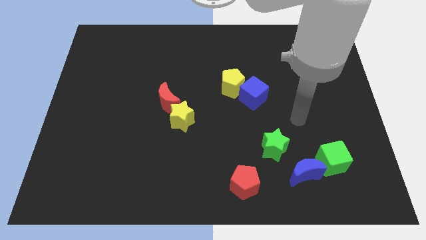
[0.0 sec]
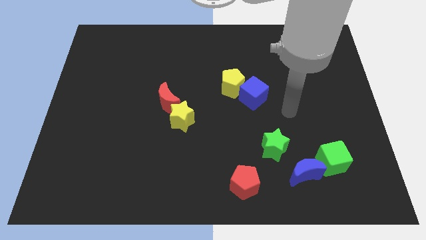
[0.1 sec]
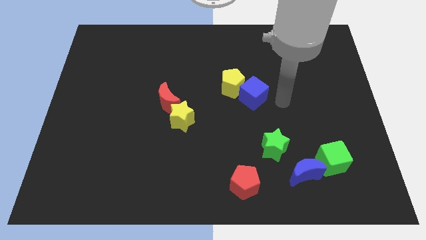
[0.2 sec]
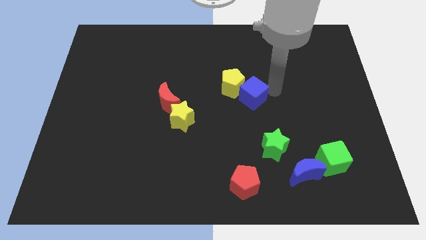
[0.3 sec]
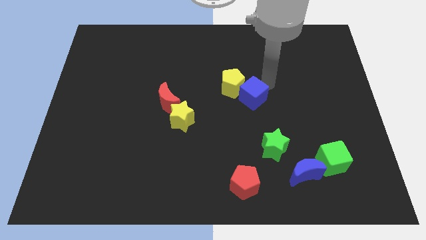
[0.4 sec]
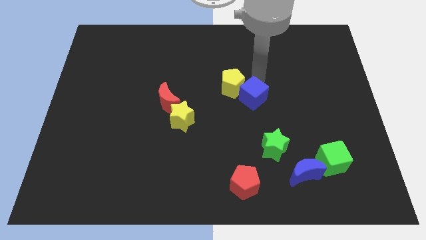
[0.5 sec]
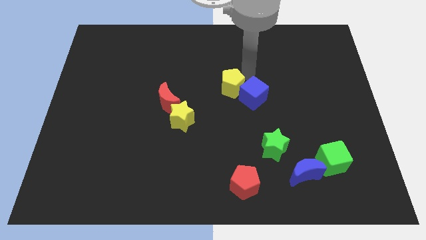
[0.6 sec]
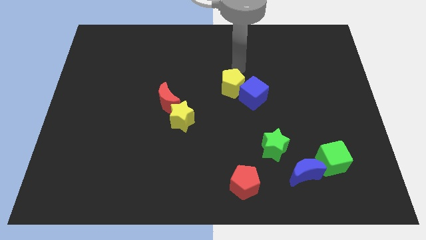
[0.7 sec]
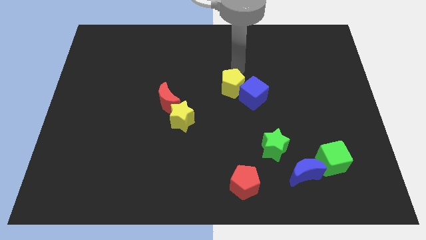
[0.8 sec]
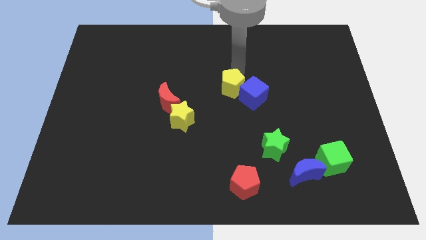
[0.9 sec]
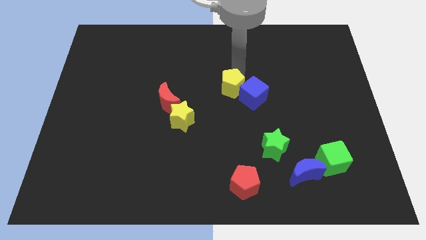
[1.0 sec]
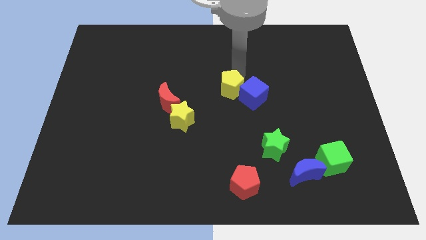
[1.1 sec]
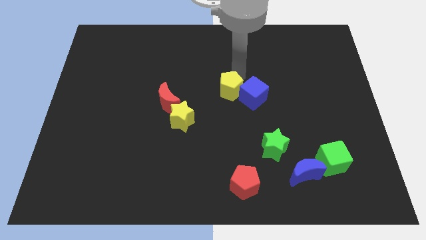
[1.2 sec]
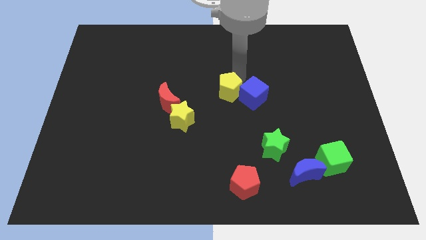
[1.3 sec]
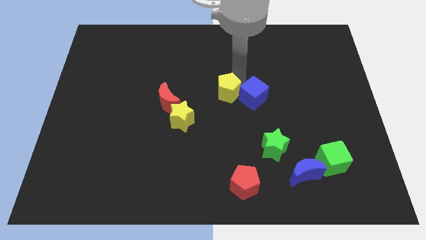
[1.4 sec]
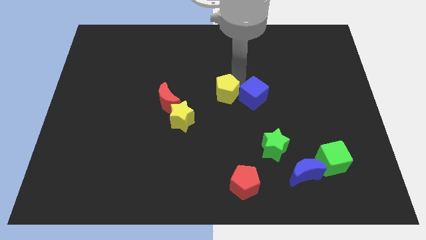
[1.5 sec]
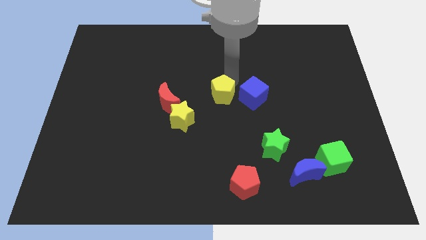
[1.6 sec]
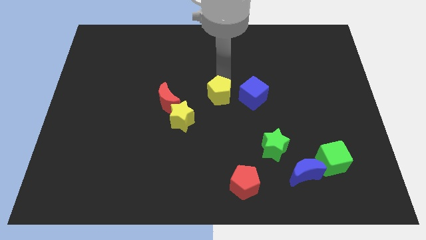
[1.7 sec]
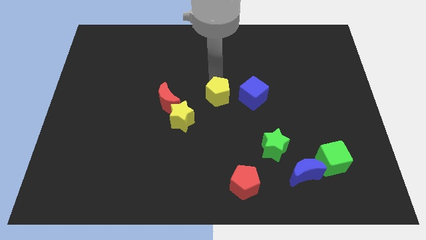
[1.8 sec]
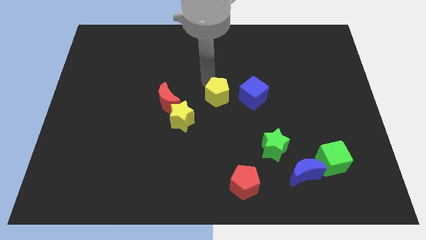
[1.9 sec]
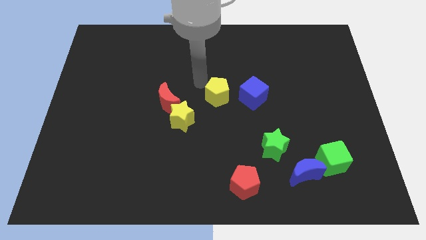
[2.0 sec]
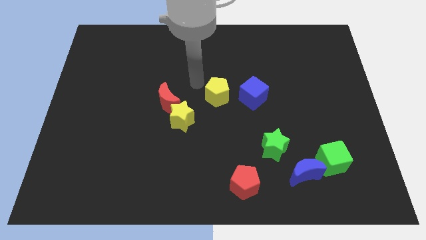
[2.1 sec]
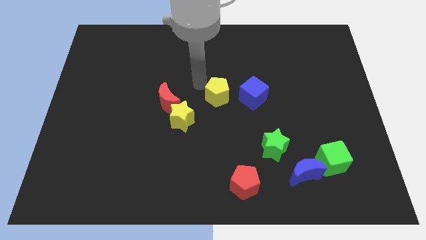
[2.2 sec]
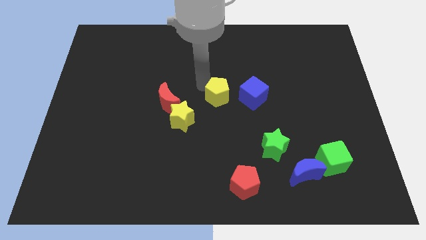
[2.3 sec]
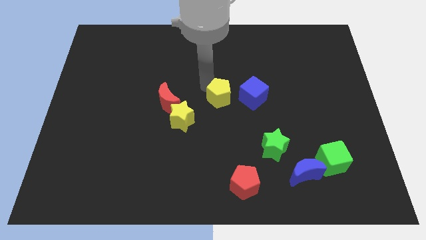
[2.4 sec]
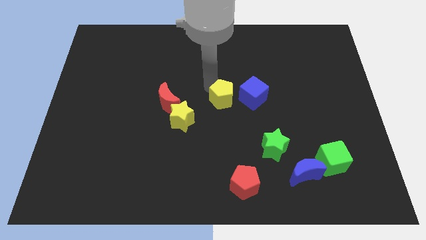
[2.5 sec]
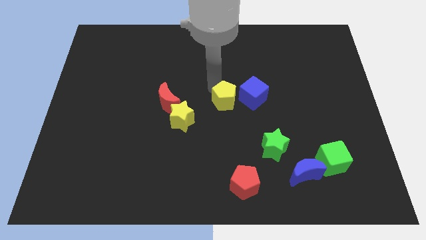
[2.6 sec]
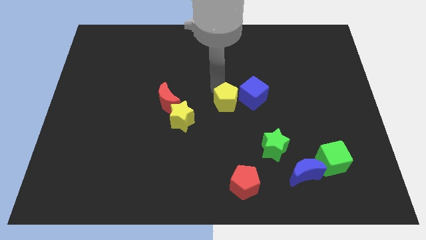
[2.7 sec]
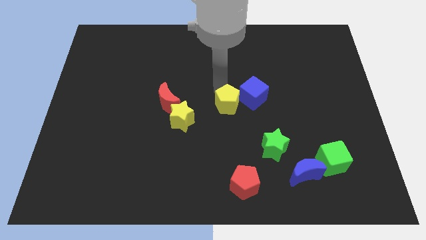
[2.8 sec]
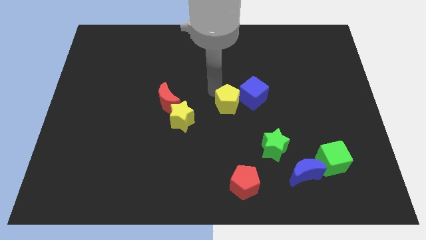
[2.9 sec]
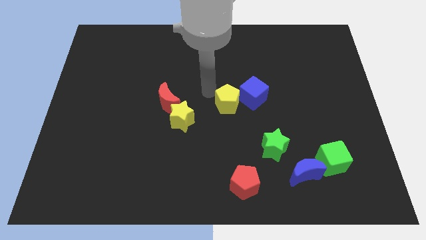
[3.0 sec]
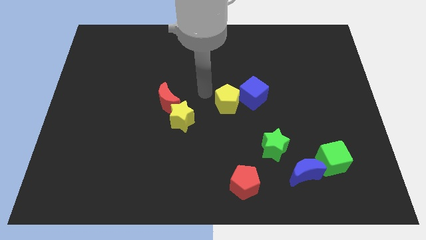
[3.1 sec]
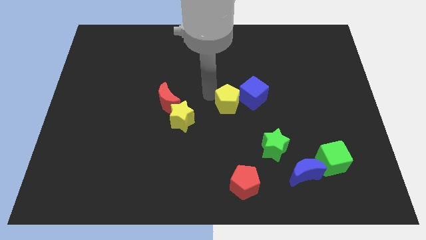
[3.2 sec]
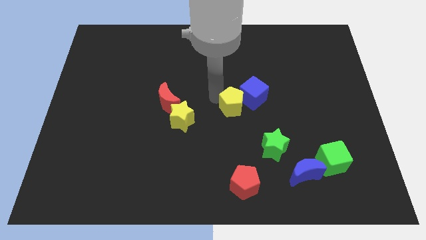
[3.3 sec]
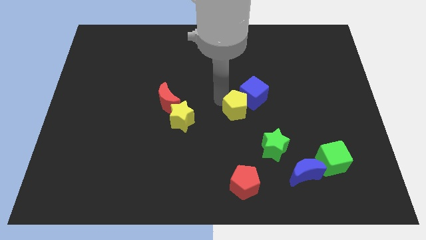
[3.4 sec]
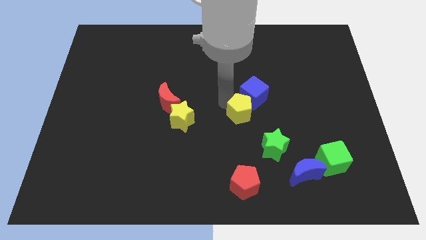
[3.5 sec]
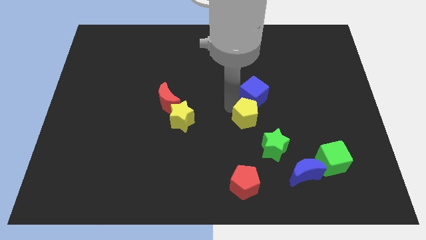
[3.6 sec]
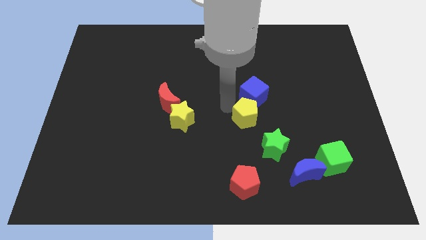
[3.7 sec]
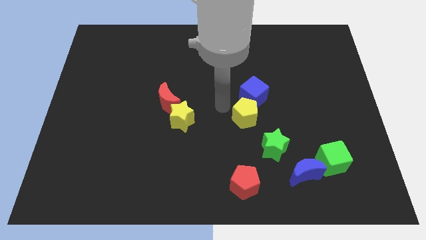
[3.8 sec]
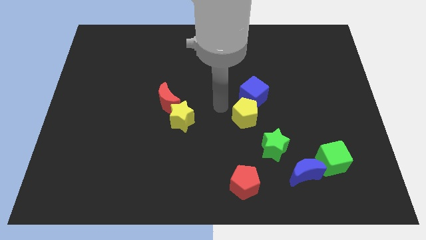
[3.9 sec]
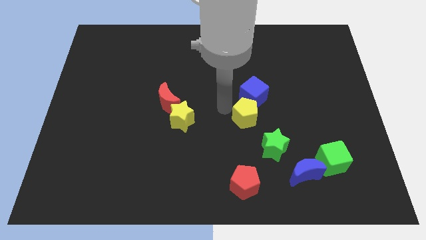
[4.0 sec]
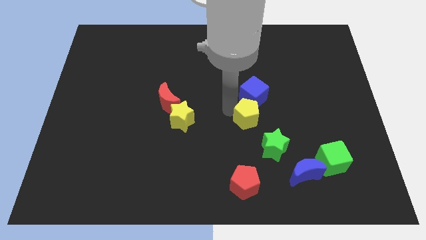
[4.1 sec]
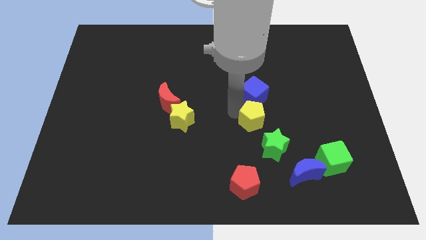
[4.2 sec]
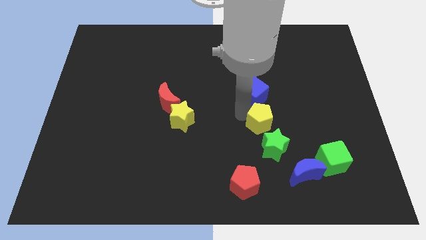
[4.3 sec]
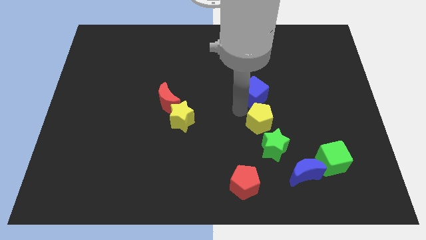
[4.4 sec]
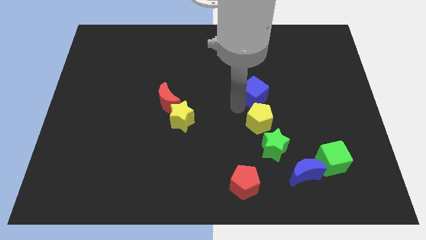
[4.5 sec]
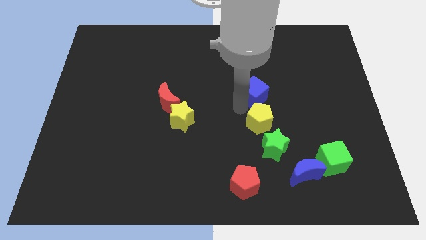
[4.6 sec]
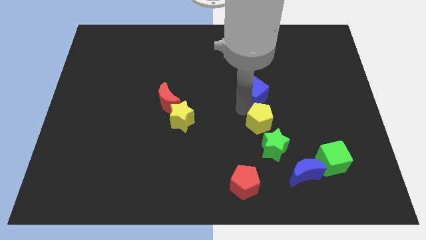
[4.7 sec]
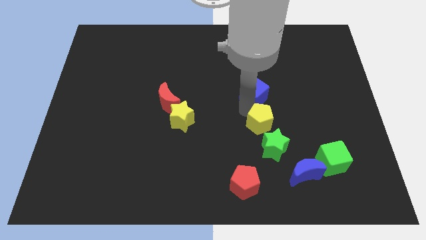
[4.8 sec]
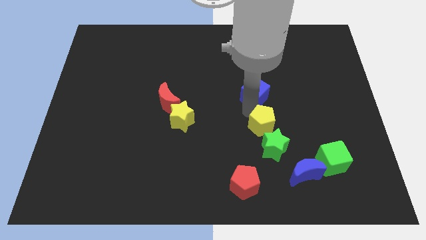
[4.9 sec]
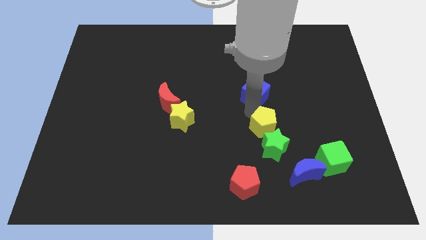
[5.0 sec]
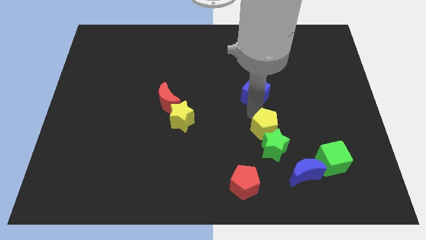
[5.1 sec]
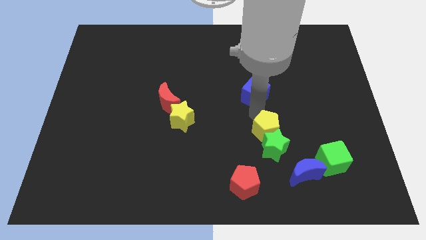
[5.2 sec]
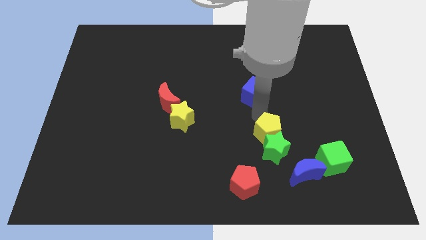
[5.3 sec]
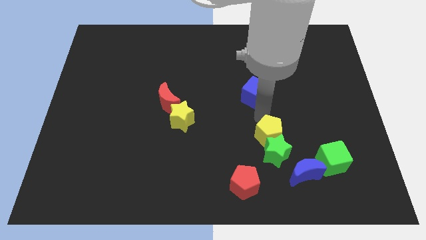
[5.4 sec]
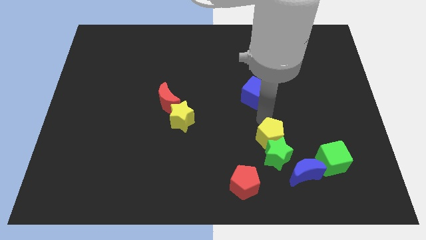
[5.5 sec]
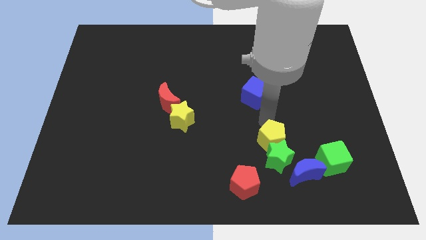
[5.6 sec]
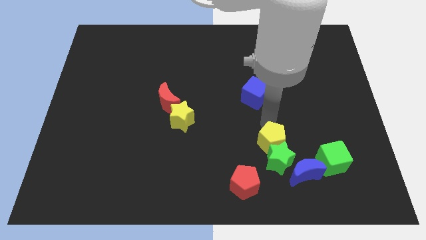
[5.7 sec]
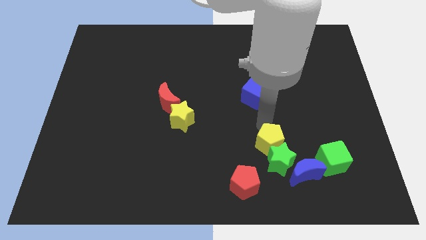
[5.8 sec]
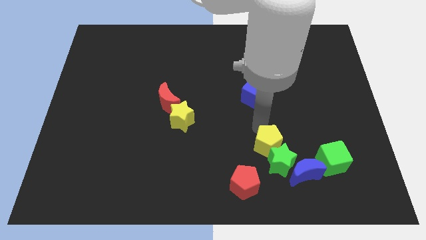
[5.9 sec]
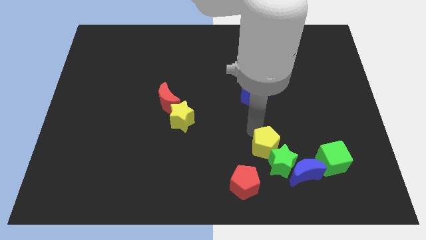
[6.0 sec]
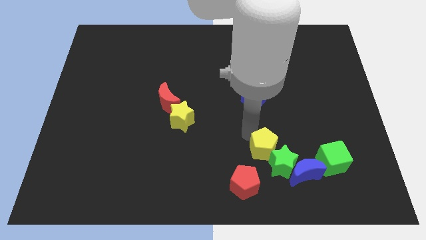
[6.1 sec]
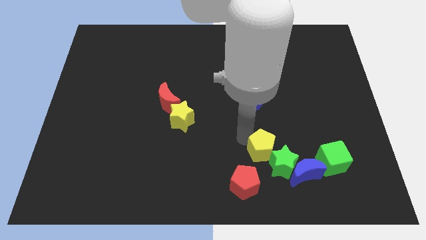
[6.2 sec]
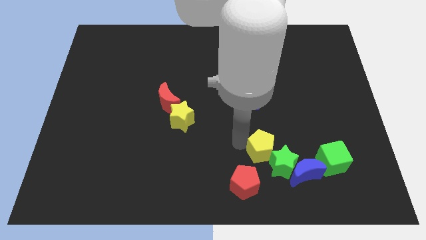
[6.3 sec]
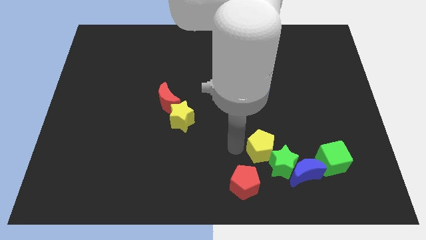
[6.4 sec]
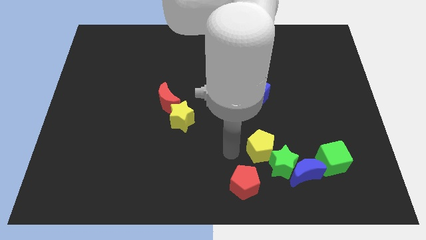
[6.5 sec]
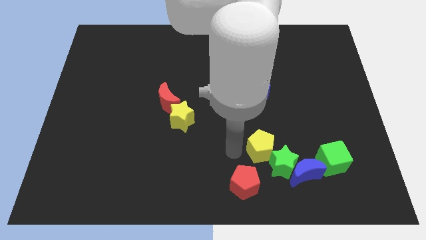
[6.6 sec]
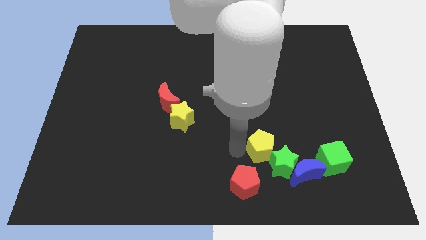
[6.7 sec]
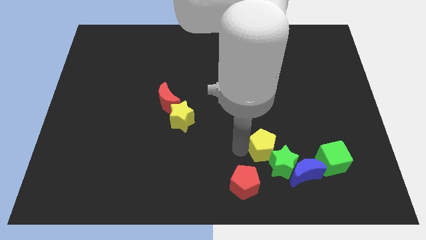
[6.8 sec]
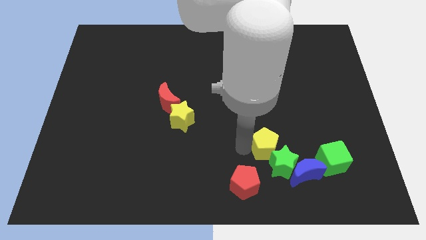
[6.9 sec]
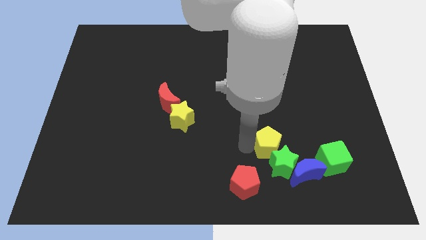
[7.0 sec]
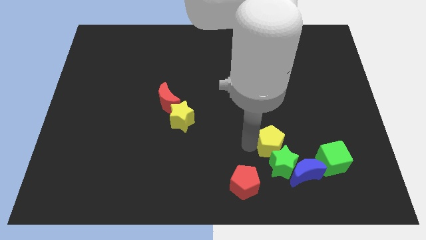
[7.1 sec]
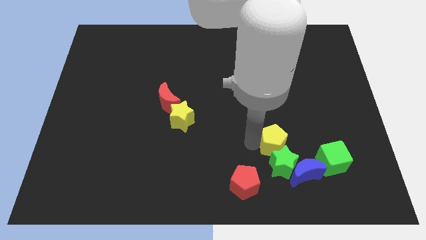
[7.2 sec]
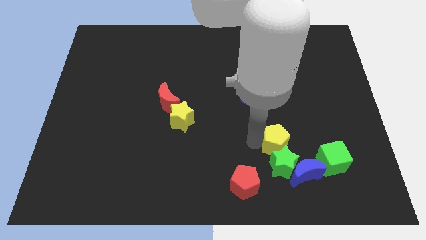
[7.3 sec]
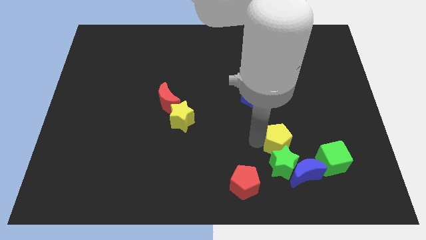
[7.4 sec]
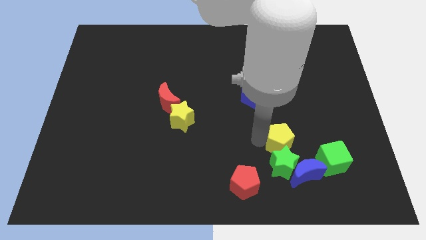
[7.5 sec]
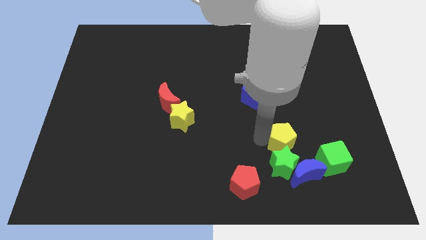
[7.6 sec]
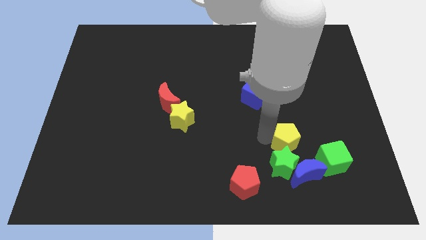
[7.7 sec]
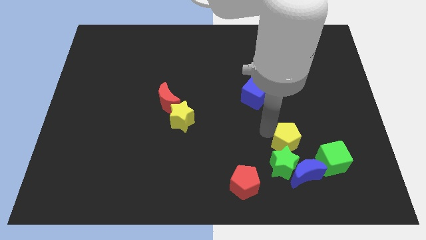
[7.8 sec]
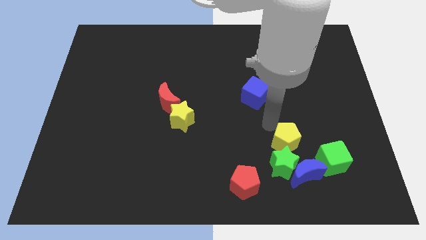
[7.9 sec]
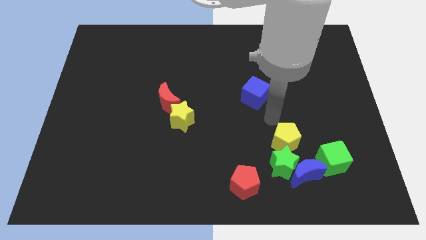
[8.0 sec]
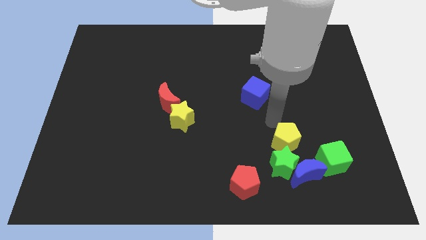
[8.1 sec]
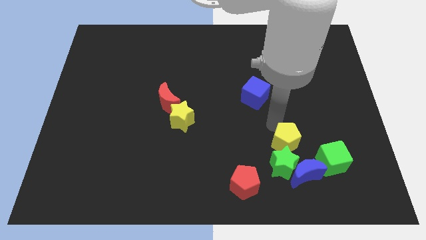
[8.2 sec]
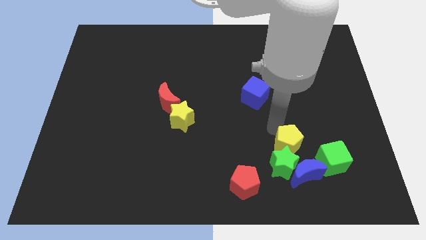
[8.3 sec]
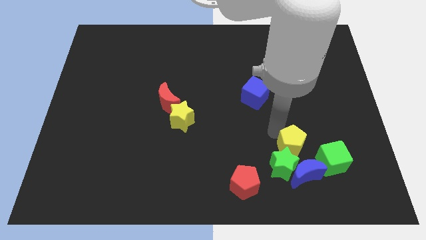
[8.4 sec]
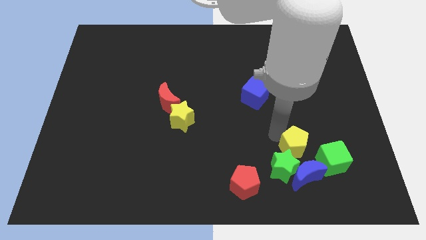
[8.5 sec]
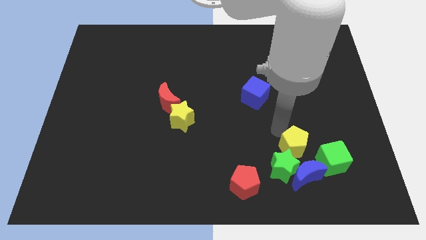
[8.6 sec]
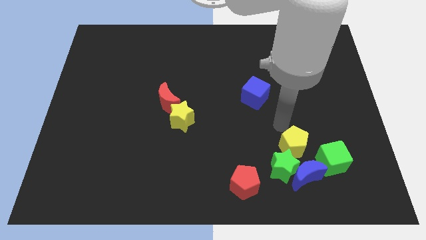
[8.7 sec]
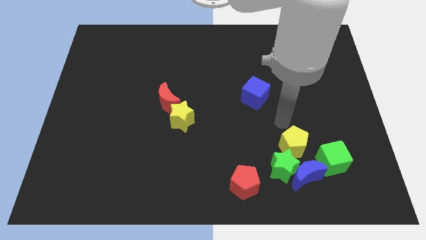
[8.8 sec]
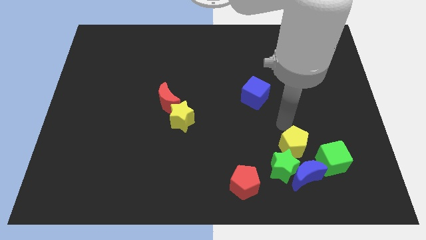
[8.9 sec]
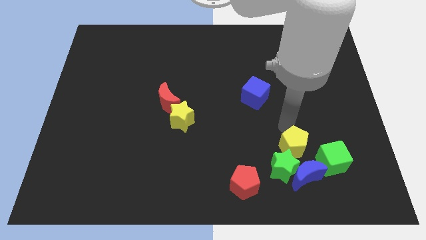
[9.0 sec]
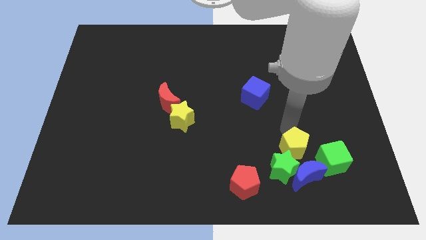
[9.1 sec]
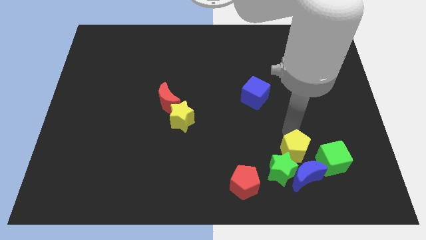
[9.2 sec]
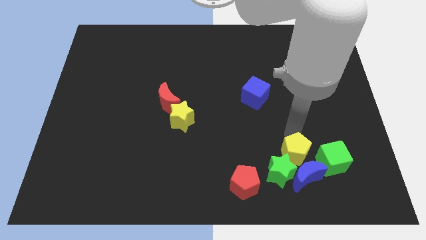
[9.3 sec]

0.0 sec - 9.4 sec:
put the yellow pentagon next to the blue moon
